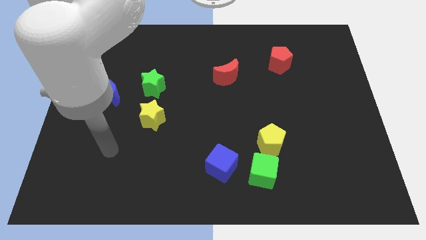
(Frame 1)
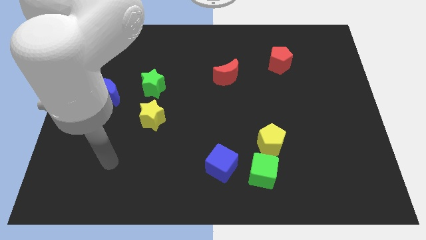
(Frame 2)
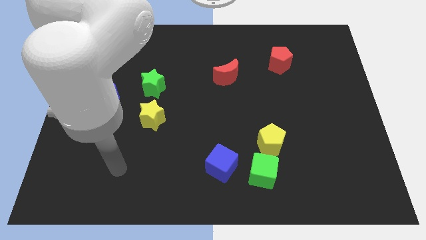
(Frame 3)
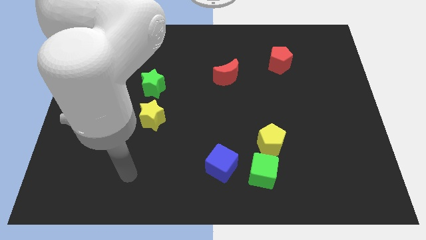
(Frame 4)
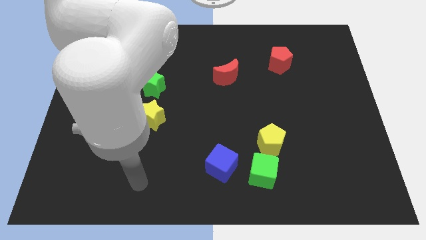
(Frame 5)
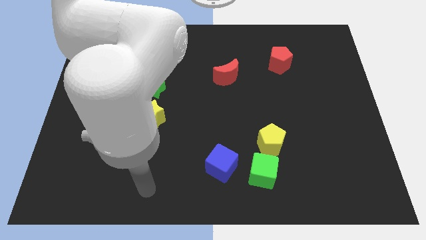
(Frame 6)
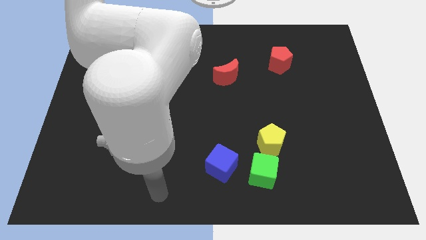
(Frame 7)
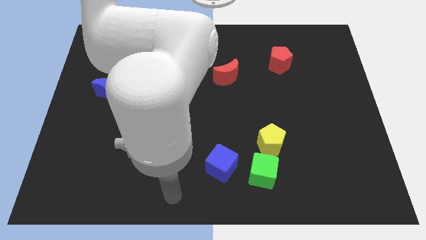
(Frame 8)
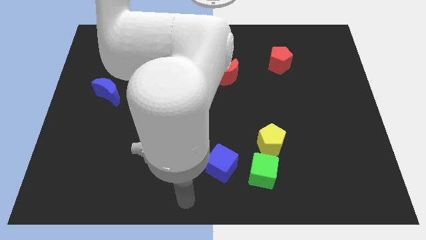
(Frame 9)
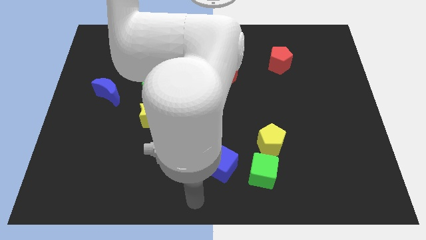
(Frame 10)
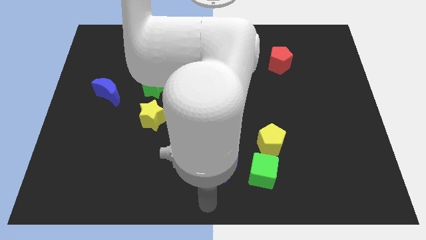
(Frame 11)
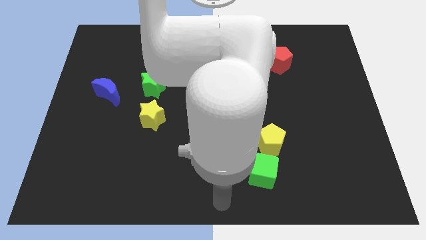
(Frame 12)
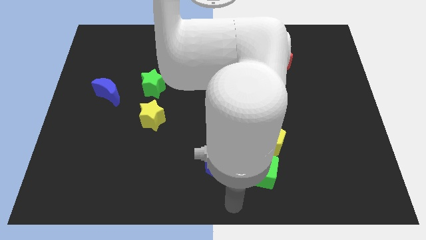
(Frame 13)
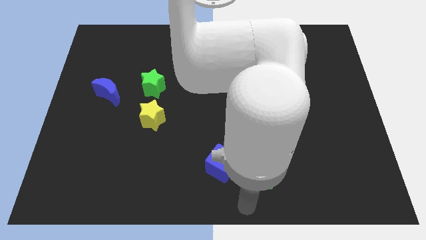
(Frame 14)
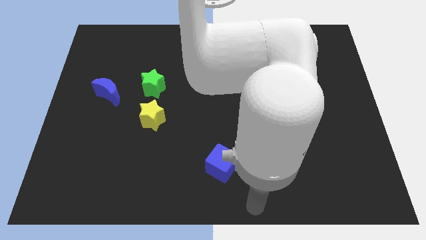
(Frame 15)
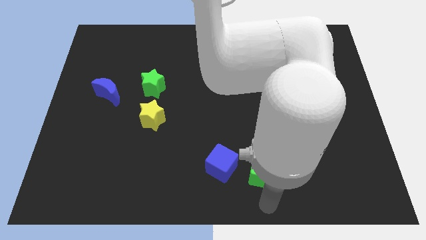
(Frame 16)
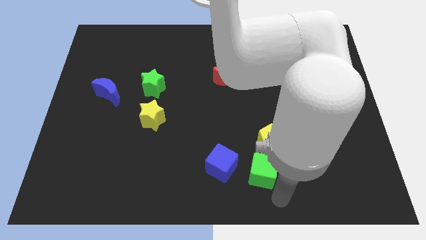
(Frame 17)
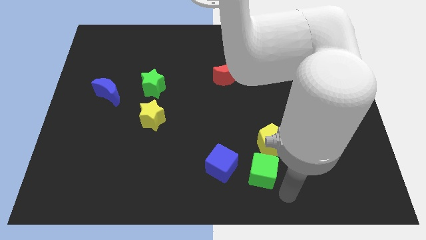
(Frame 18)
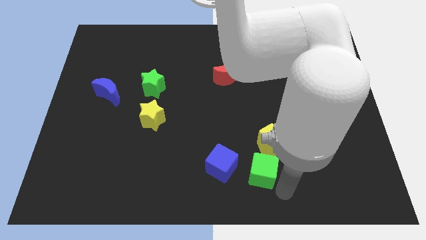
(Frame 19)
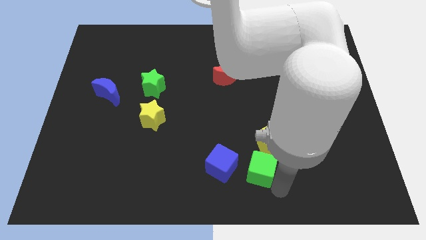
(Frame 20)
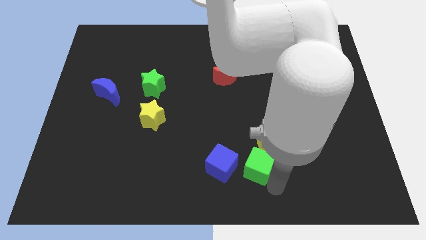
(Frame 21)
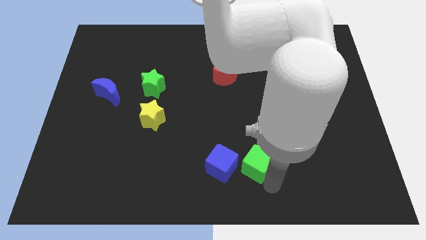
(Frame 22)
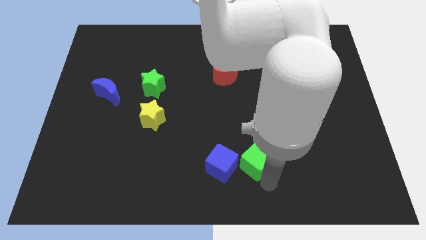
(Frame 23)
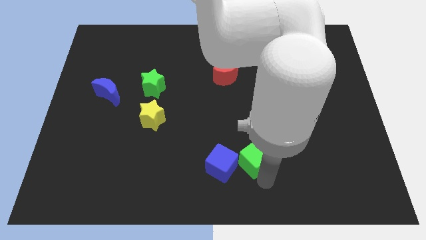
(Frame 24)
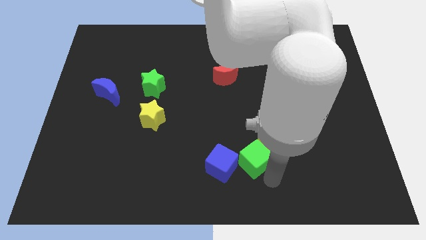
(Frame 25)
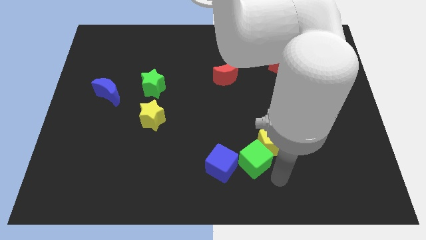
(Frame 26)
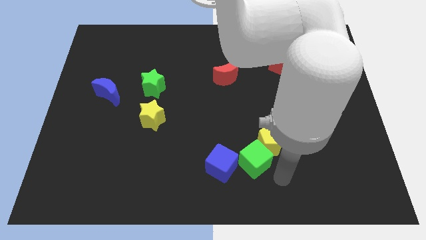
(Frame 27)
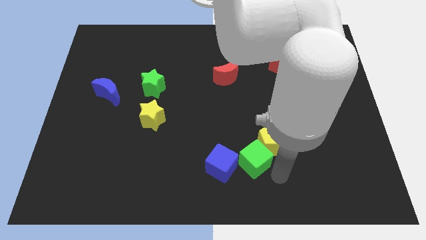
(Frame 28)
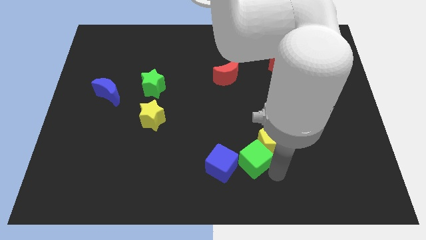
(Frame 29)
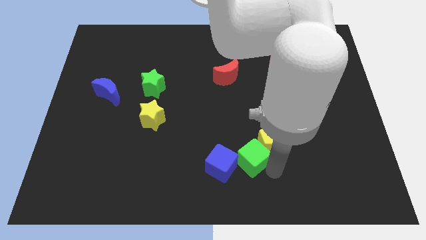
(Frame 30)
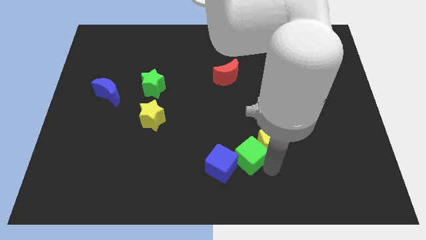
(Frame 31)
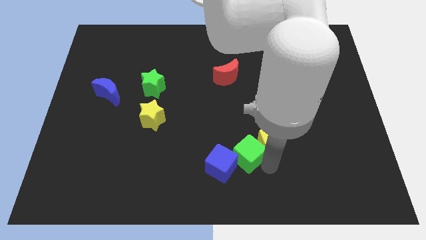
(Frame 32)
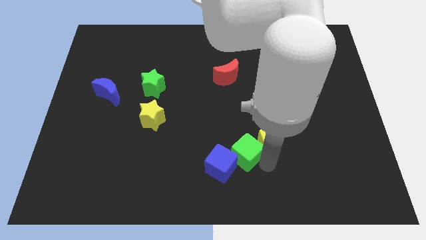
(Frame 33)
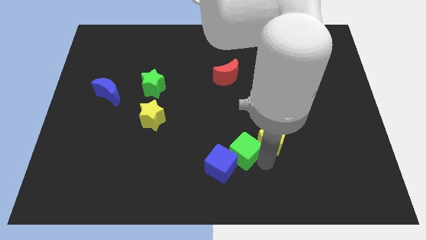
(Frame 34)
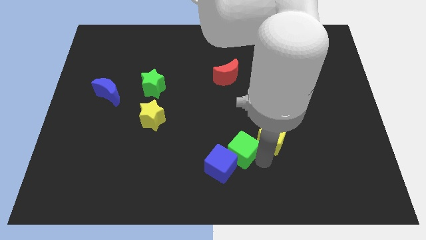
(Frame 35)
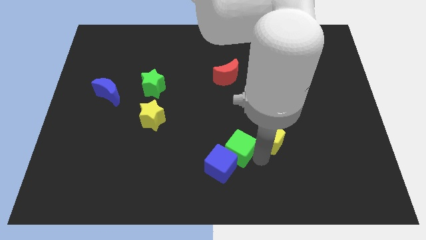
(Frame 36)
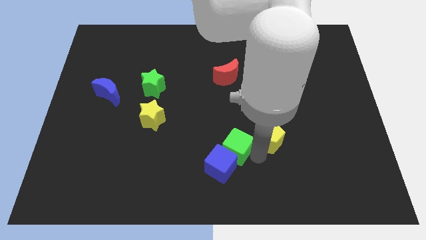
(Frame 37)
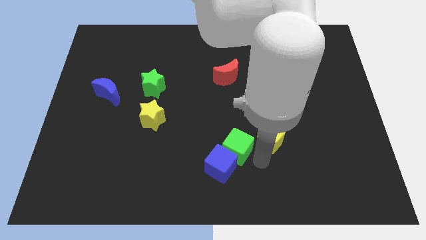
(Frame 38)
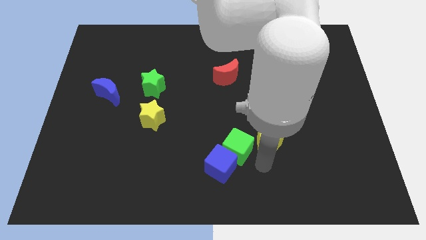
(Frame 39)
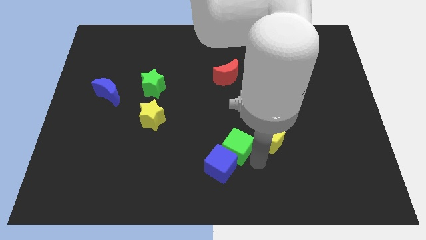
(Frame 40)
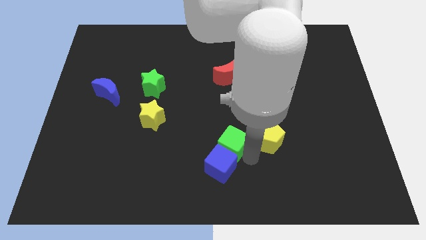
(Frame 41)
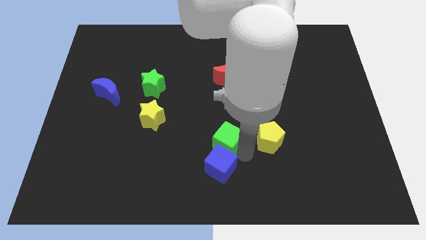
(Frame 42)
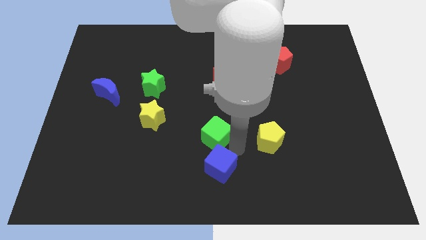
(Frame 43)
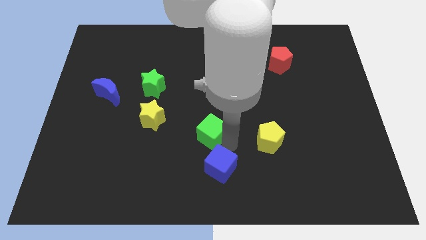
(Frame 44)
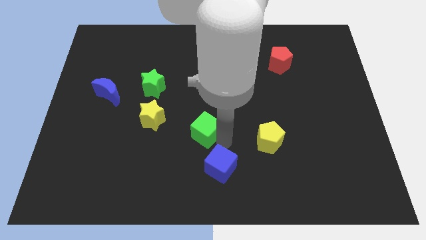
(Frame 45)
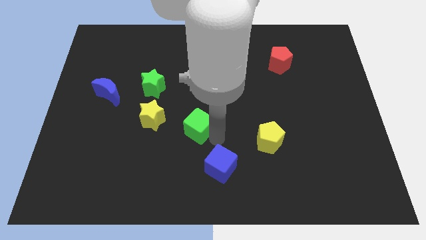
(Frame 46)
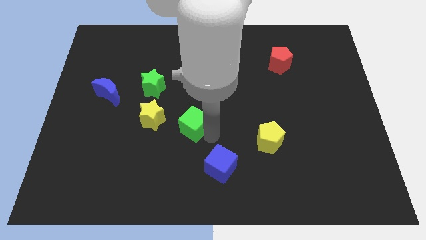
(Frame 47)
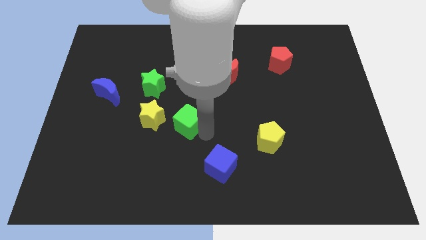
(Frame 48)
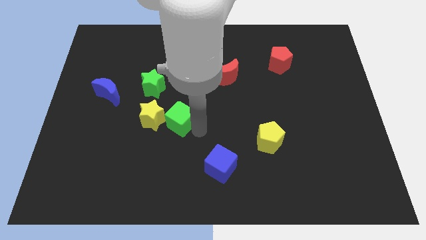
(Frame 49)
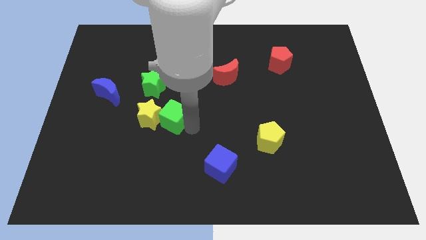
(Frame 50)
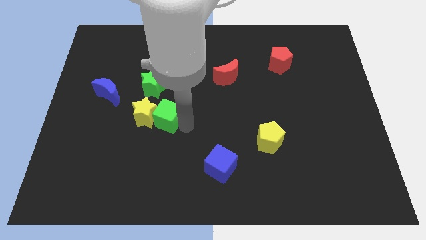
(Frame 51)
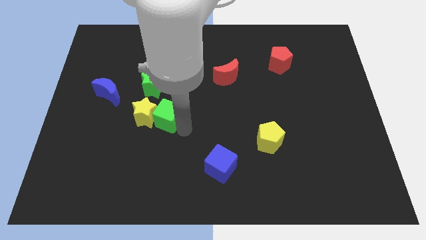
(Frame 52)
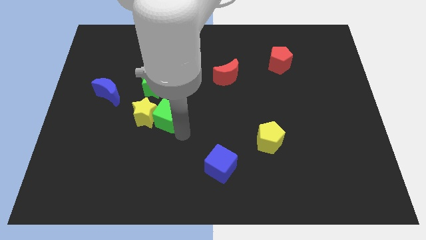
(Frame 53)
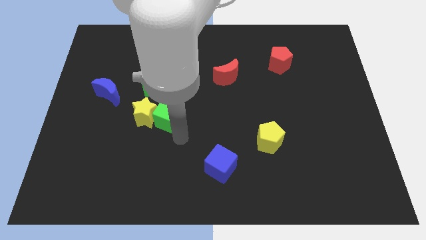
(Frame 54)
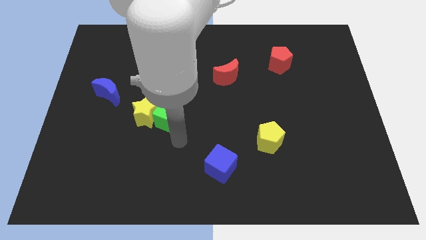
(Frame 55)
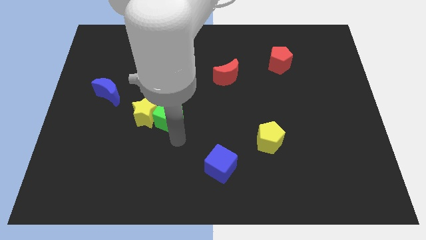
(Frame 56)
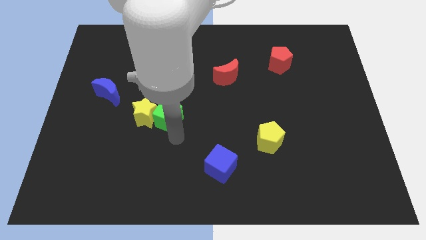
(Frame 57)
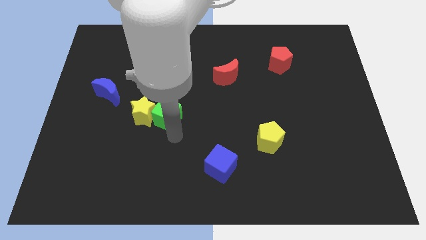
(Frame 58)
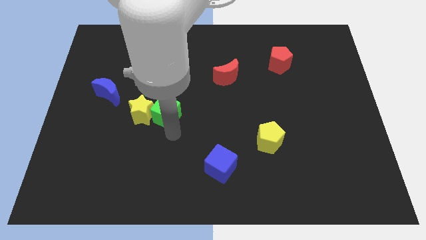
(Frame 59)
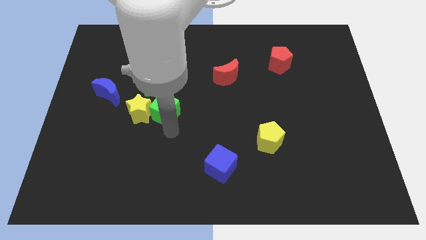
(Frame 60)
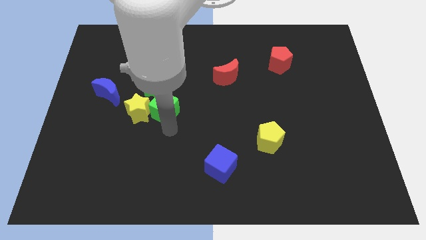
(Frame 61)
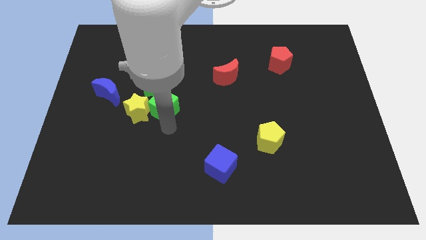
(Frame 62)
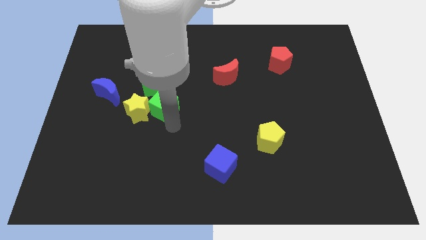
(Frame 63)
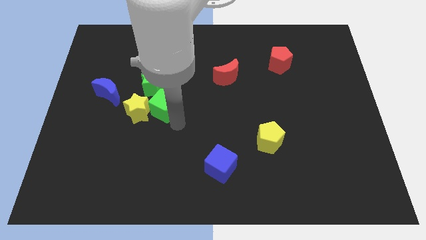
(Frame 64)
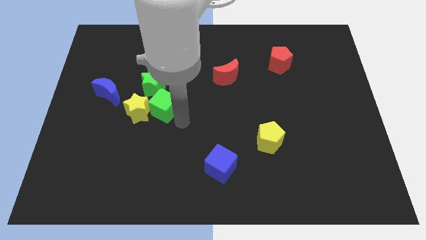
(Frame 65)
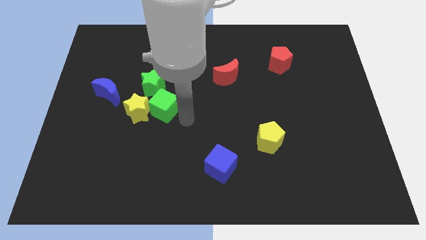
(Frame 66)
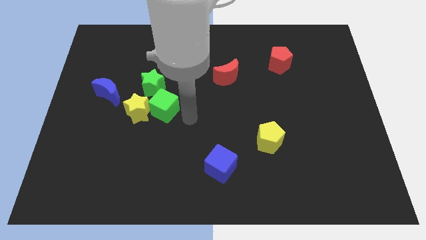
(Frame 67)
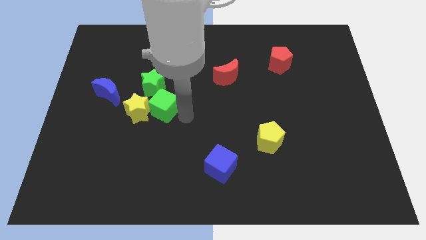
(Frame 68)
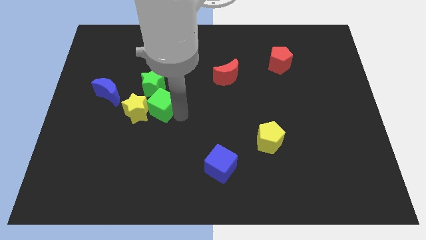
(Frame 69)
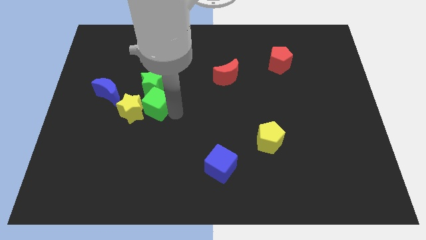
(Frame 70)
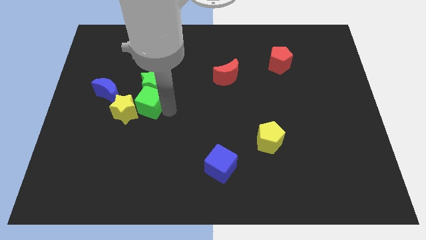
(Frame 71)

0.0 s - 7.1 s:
push the green cube to the bottom left side of the green star
